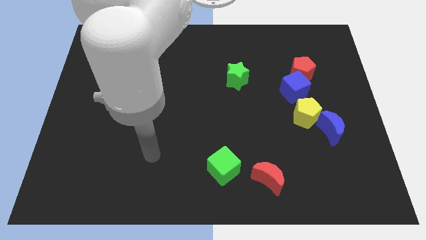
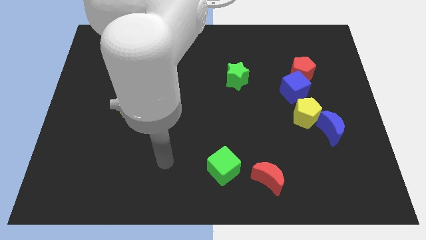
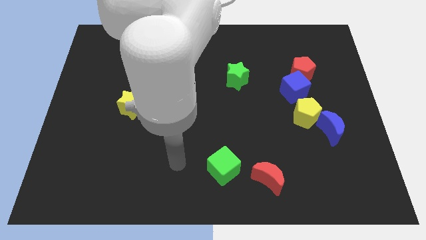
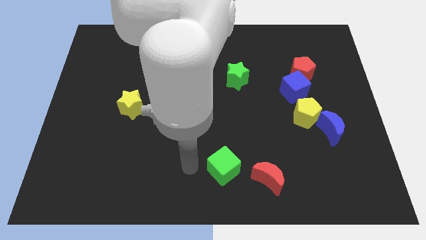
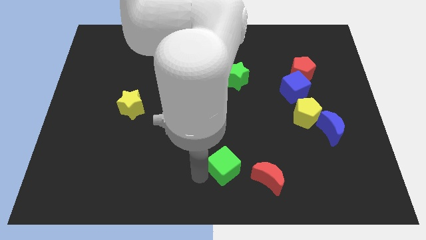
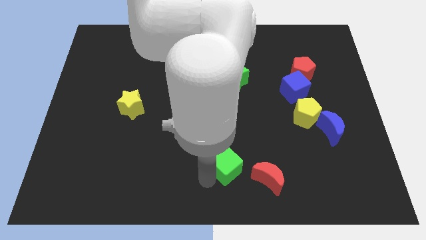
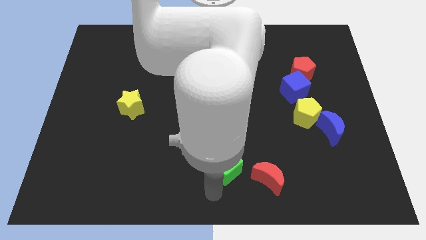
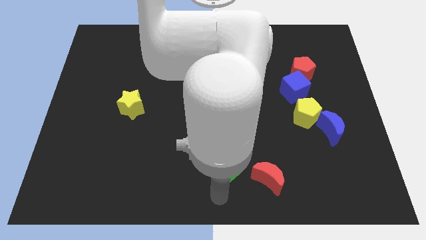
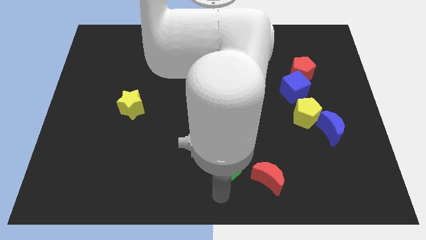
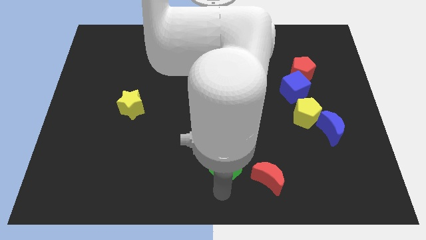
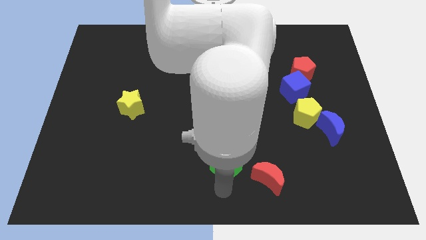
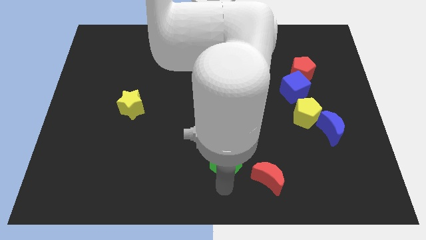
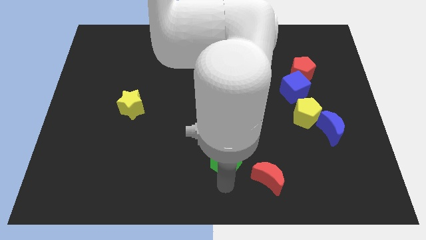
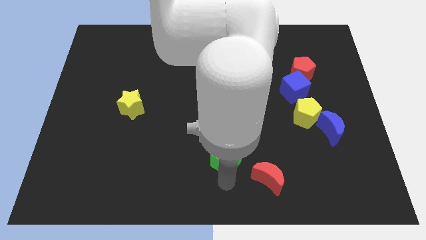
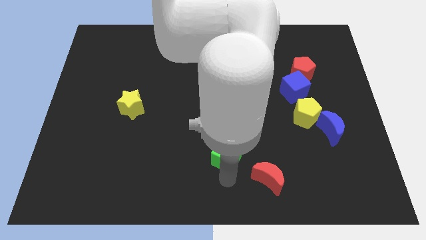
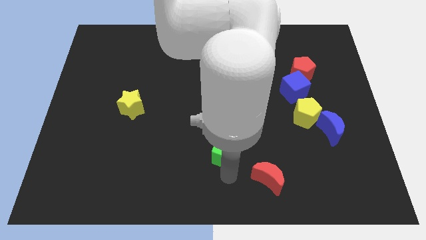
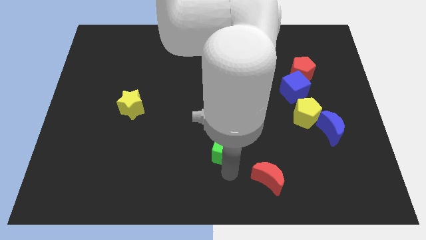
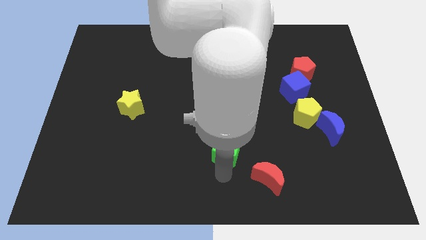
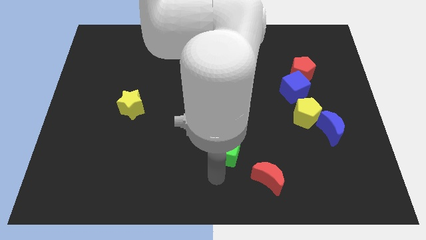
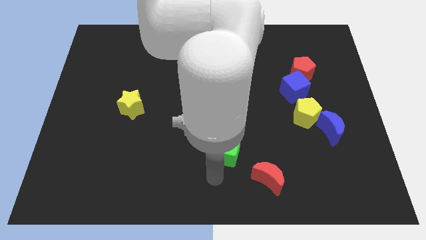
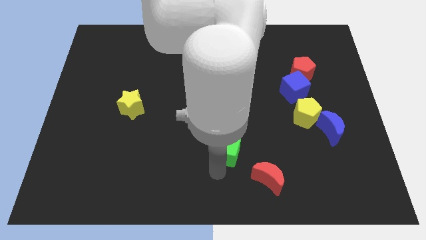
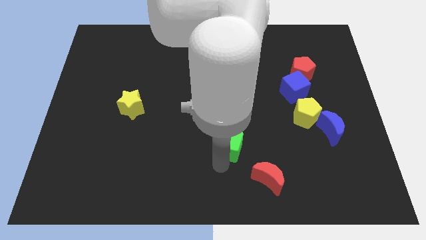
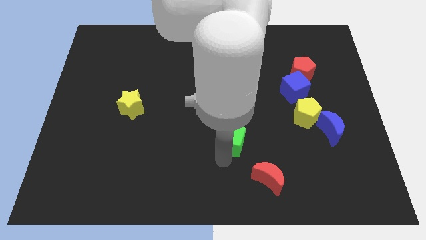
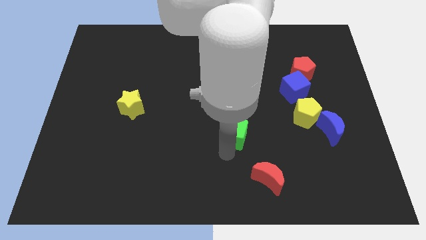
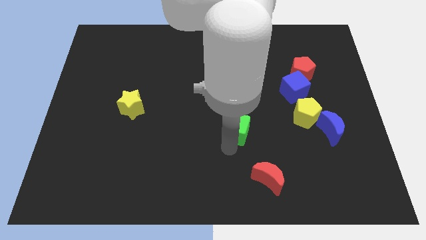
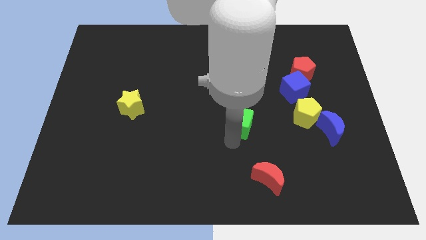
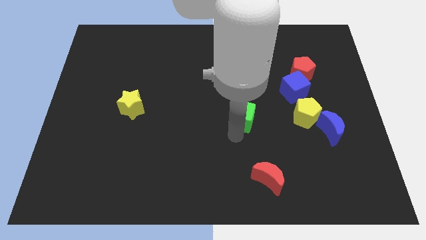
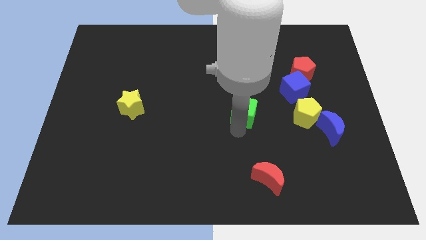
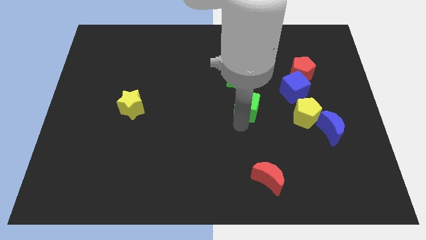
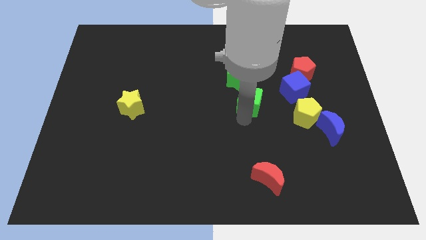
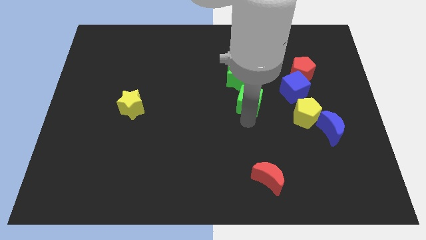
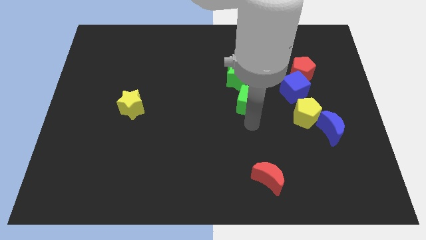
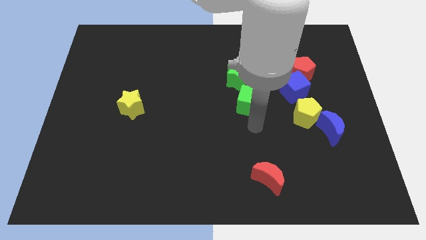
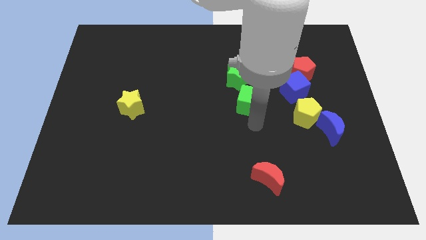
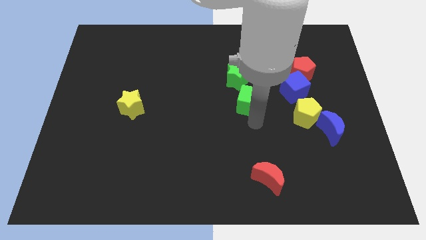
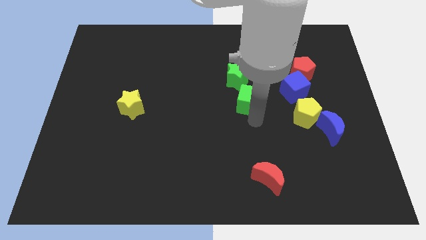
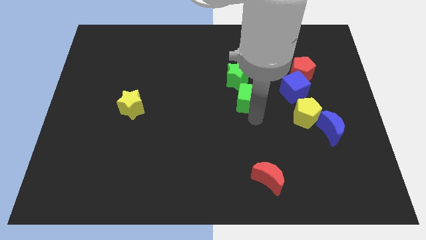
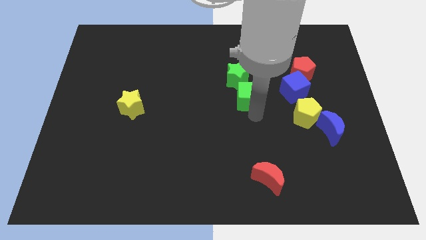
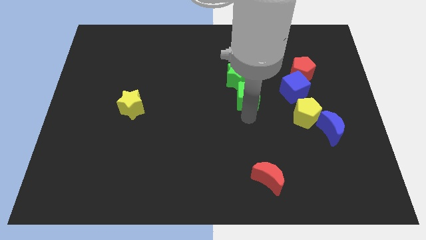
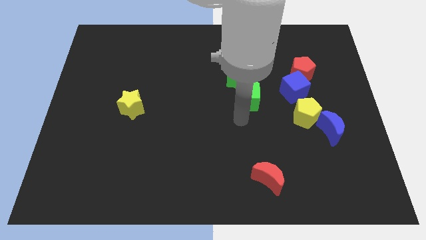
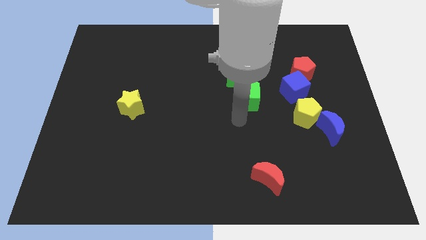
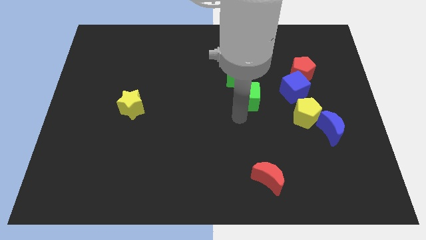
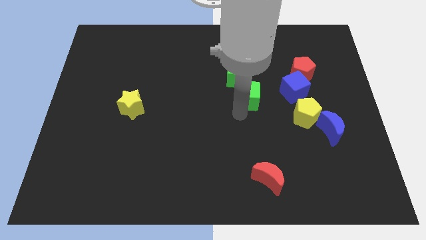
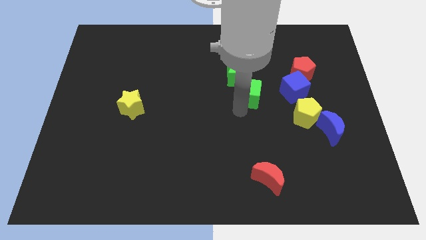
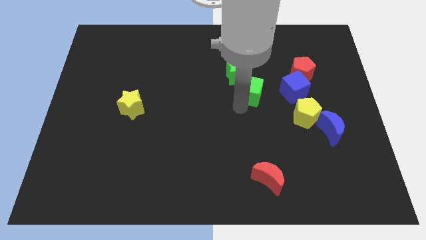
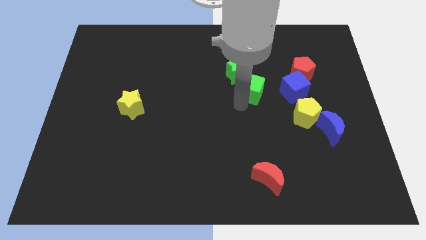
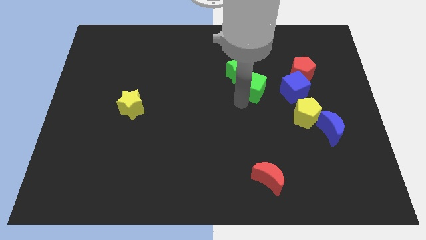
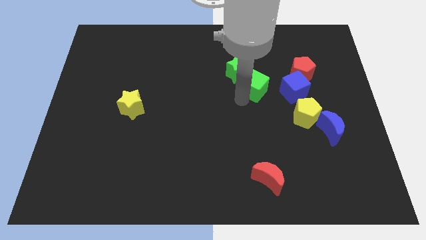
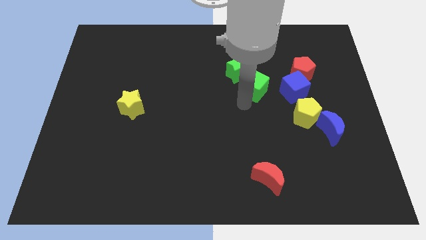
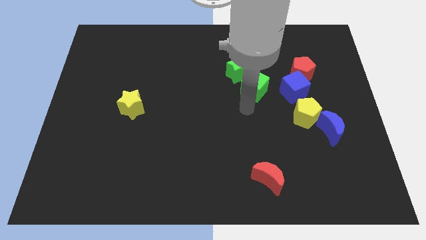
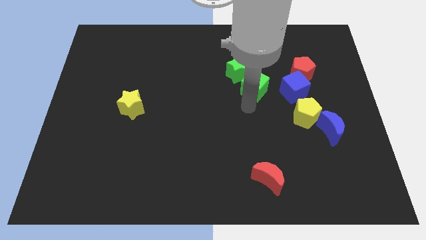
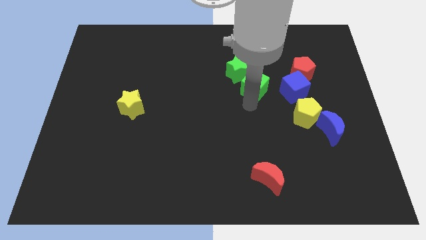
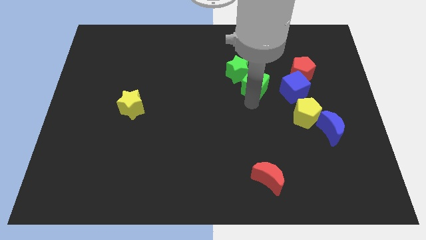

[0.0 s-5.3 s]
move the green cube to the left side of the red pentagon

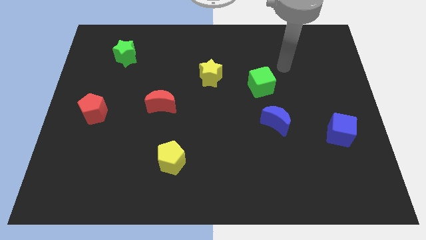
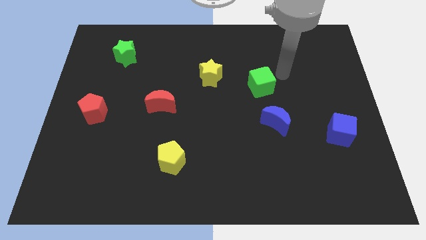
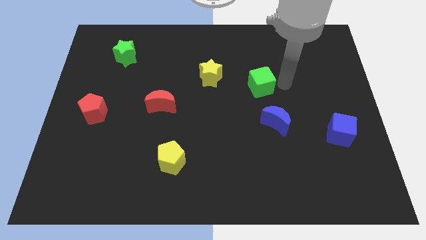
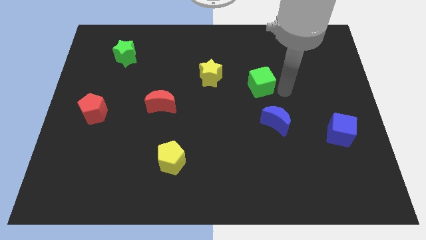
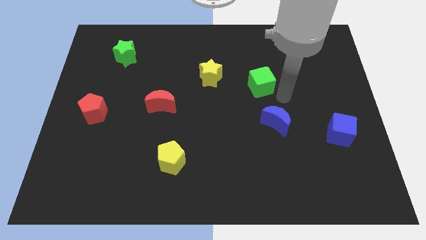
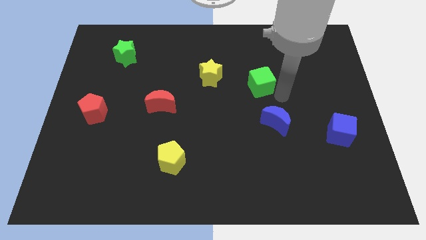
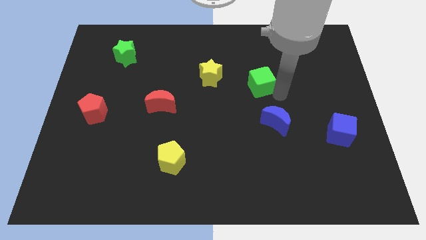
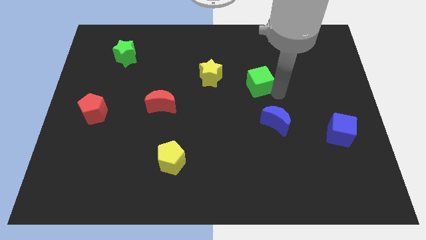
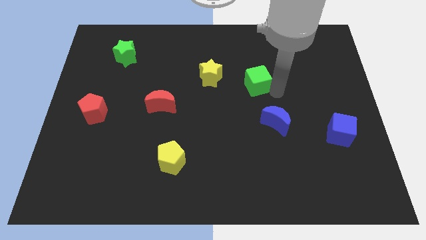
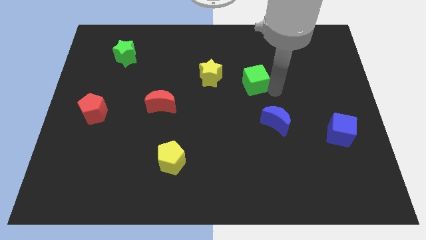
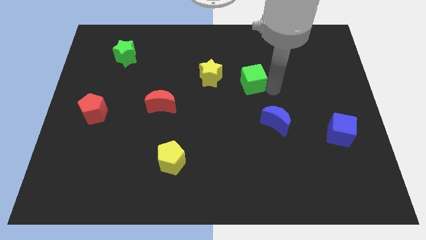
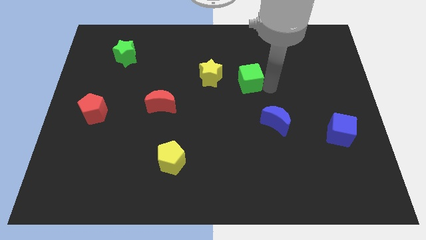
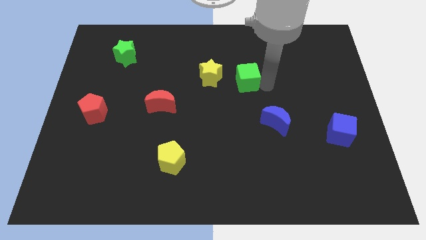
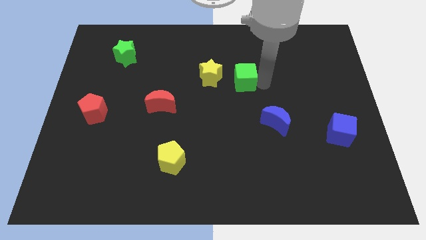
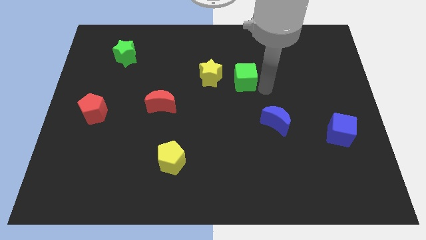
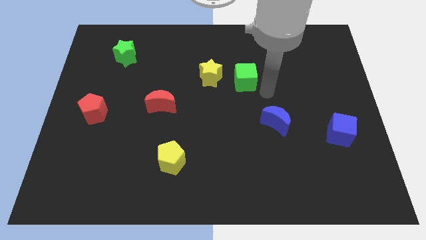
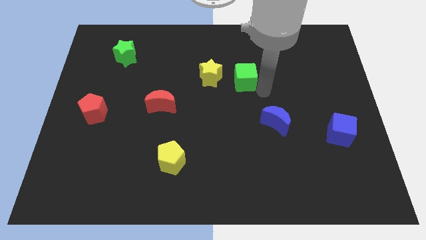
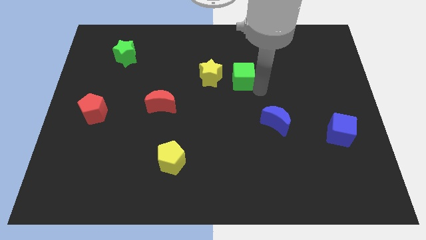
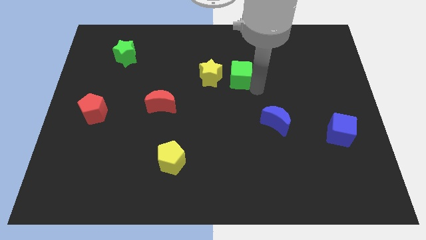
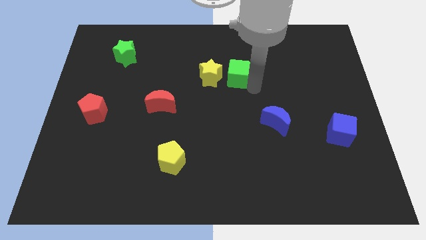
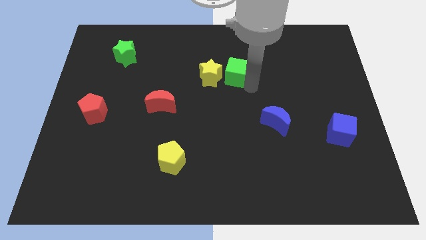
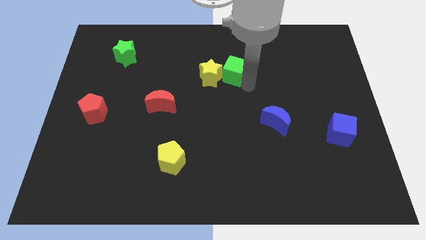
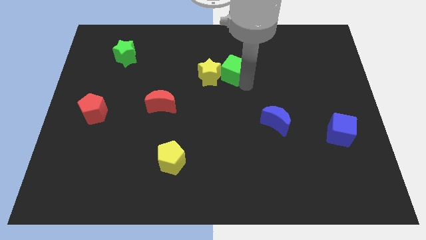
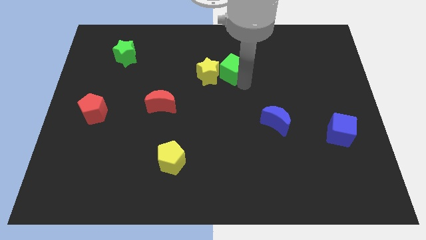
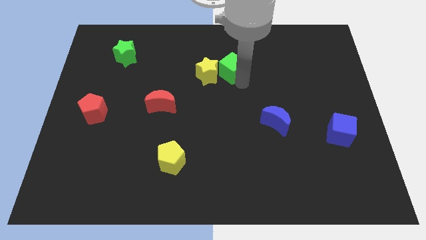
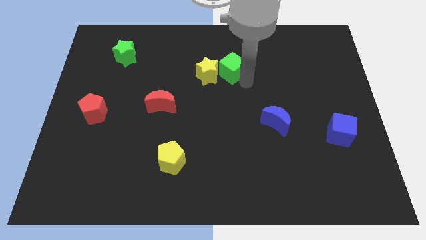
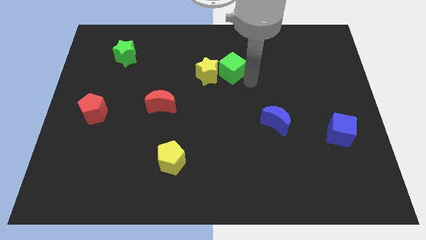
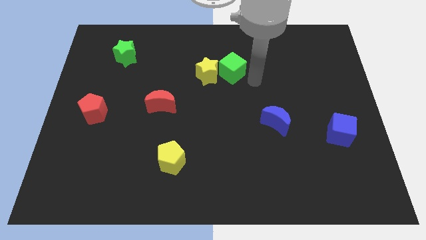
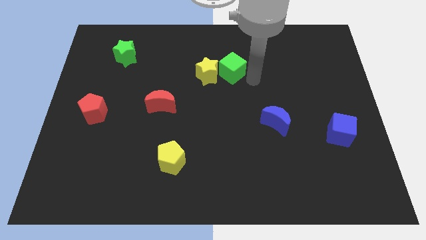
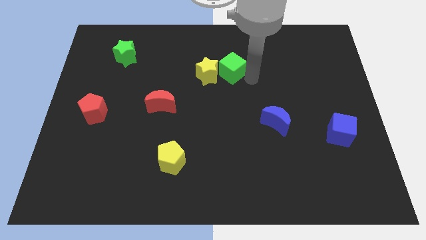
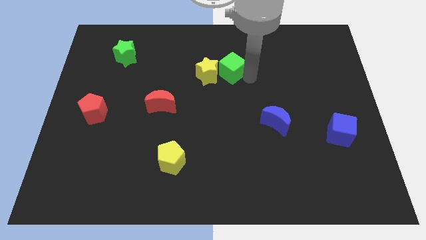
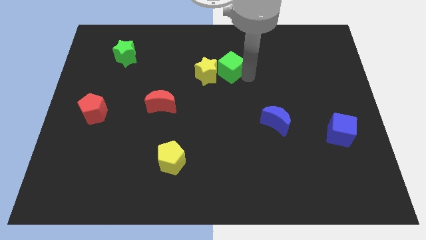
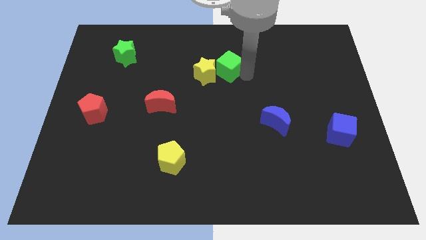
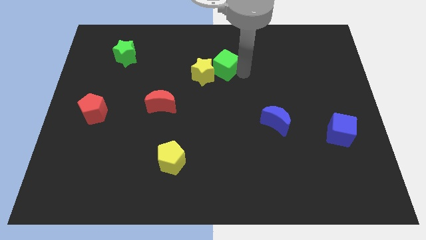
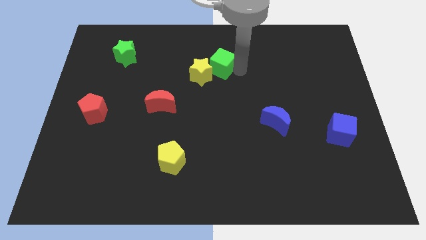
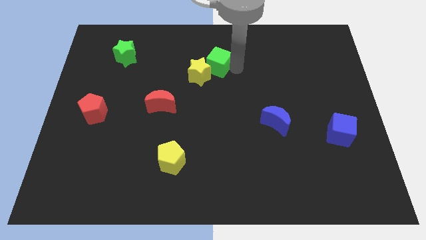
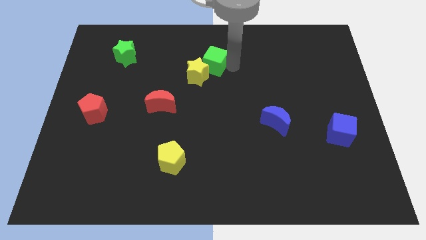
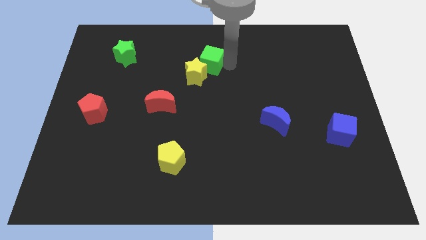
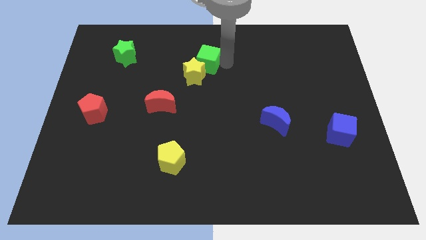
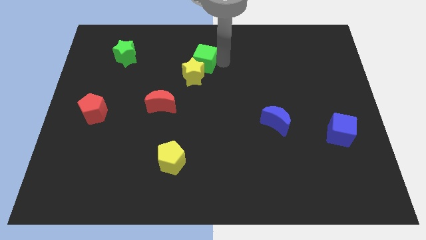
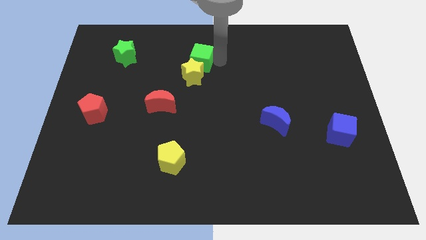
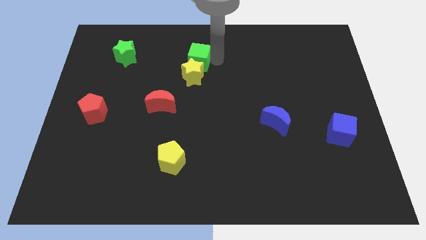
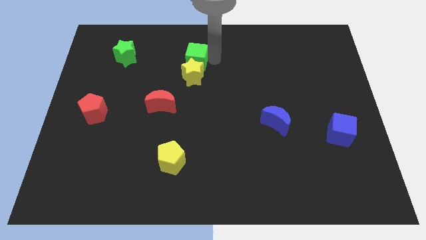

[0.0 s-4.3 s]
move the green cube to the top left of the yellow star
